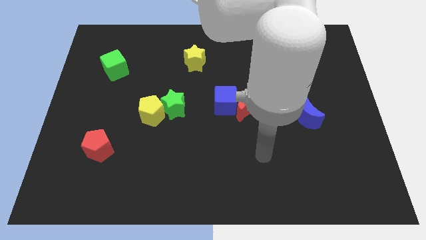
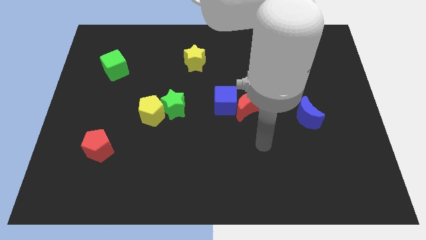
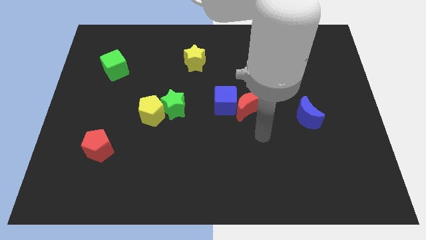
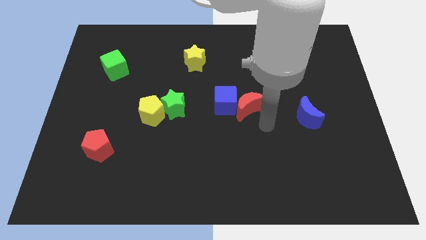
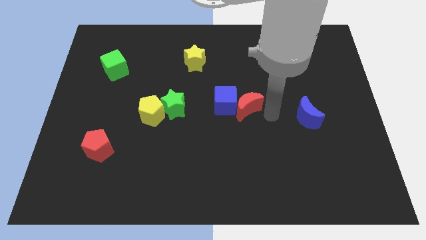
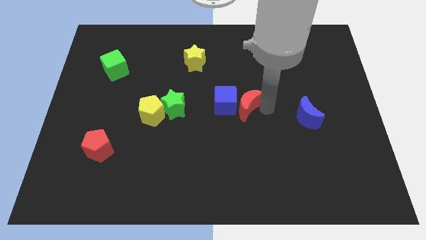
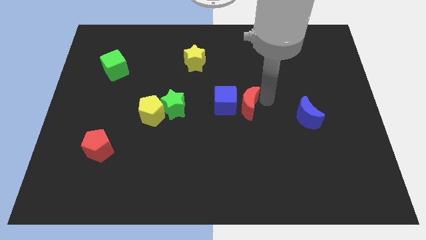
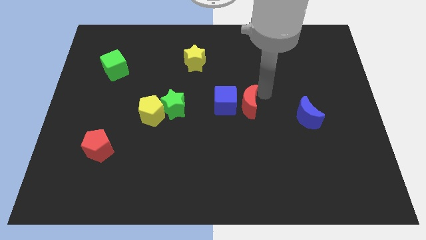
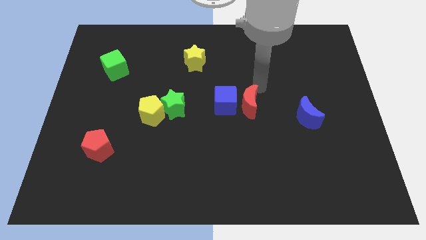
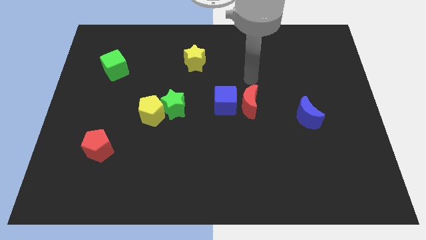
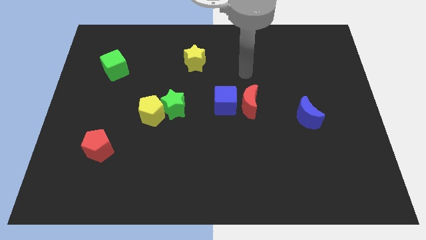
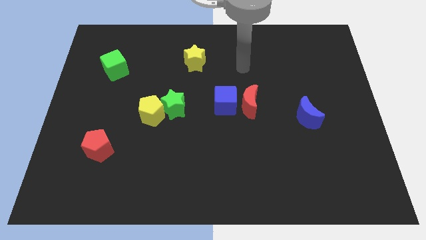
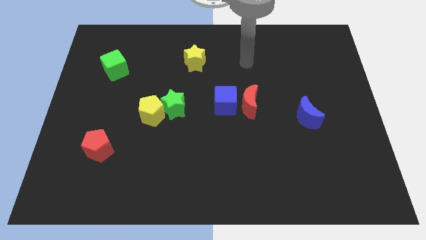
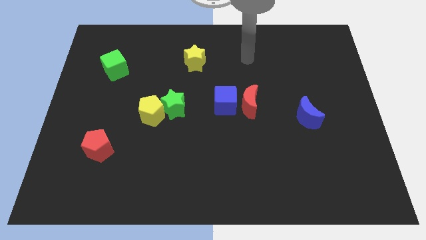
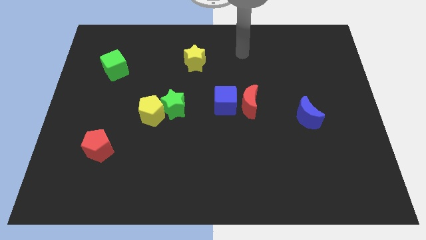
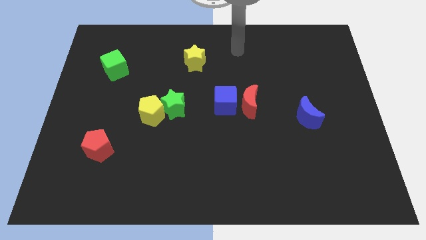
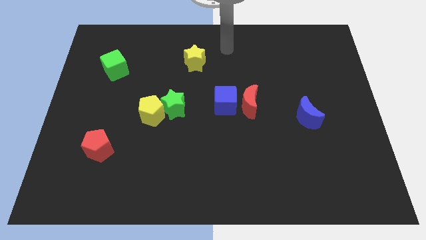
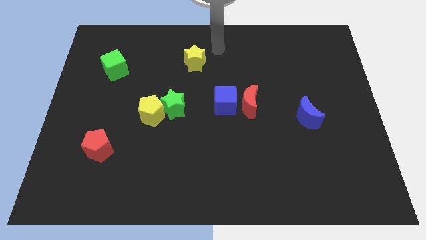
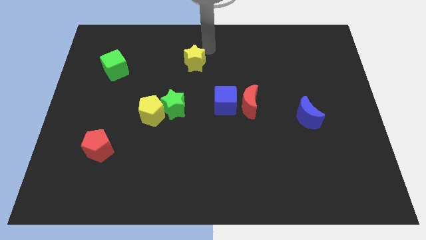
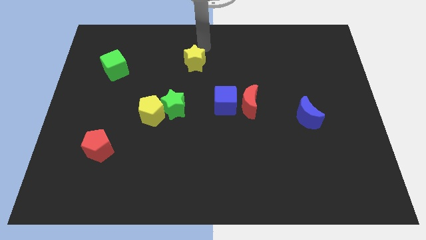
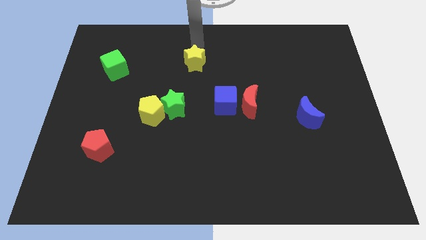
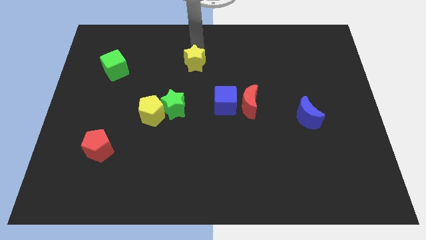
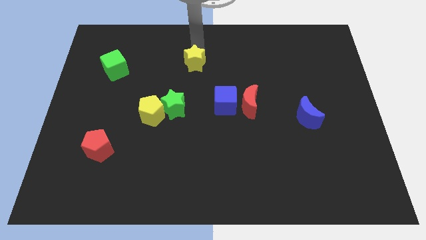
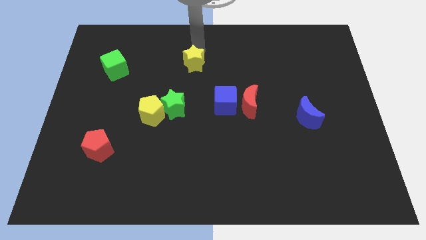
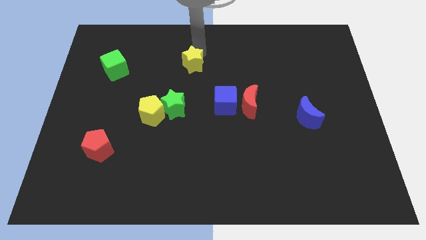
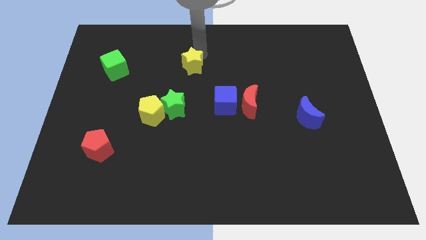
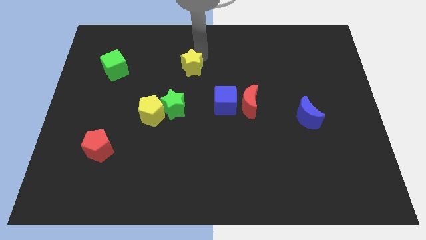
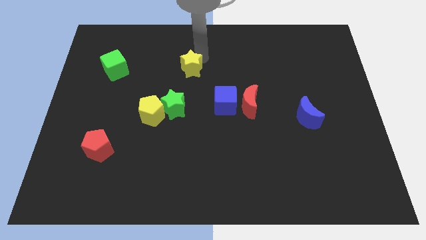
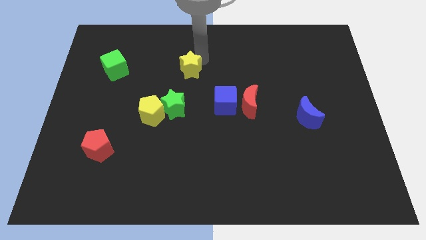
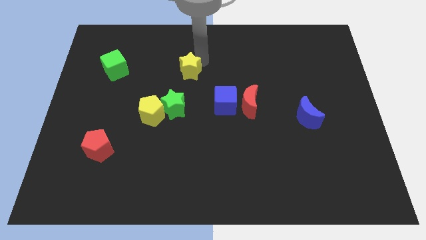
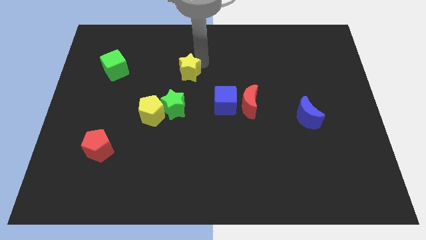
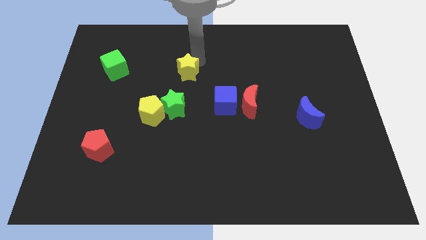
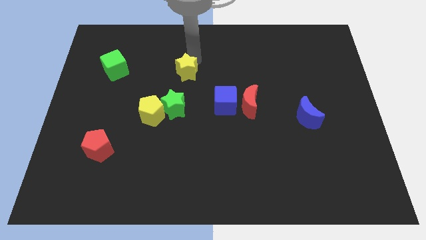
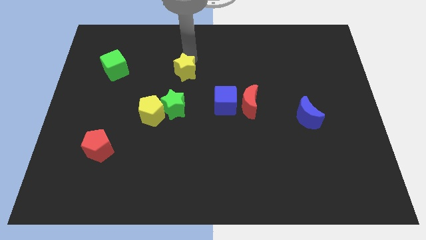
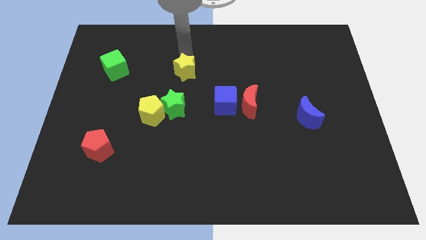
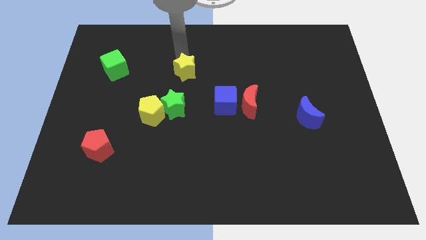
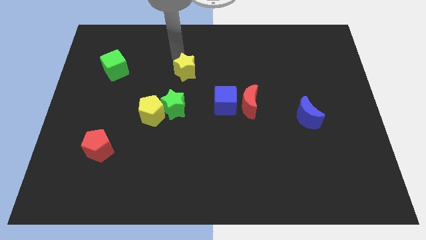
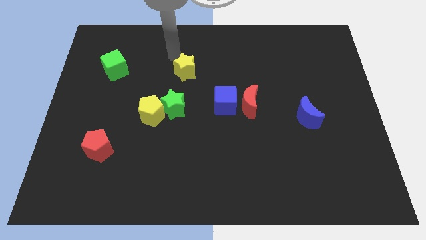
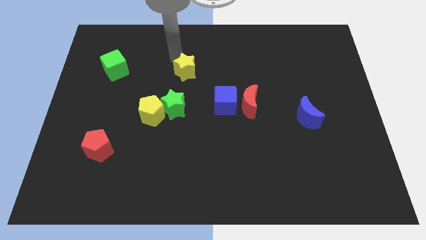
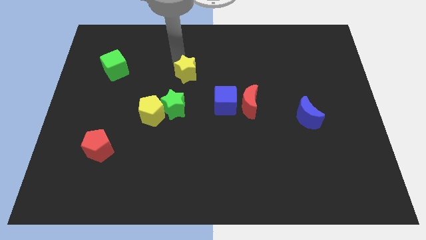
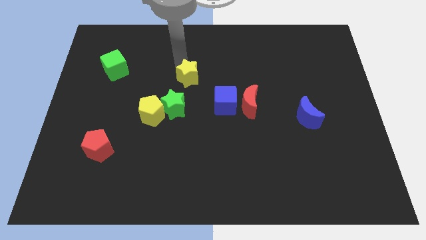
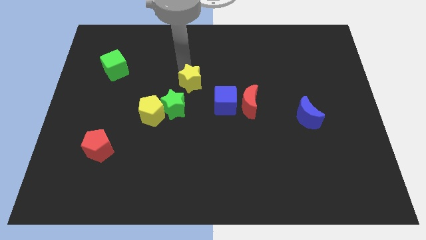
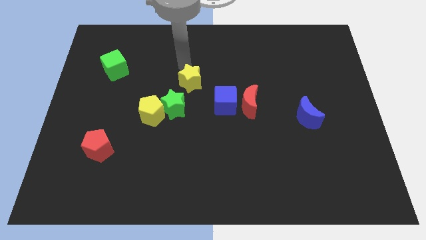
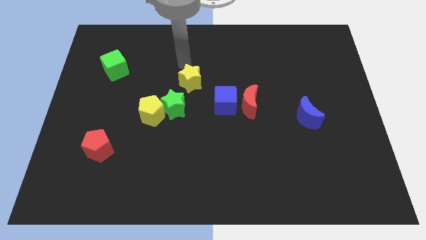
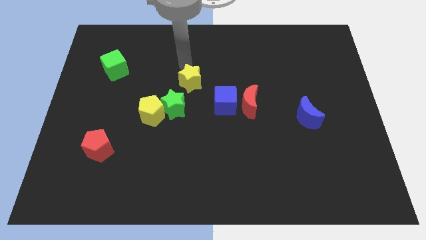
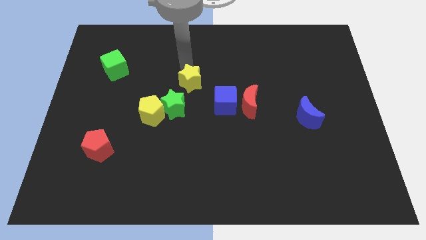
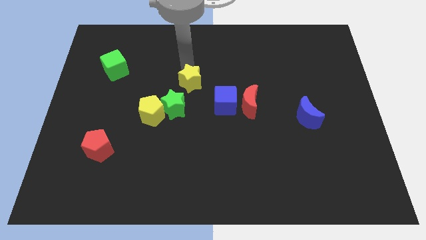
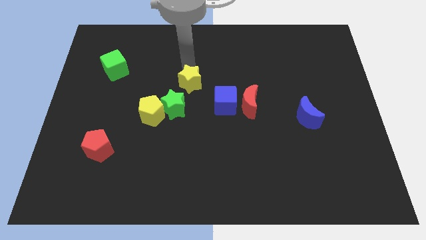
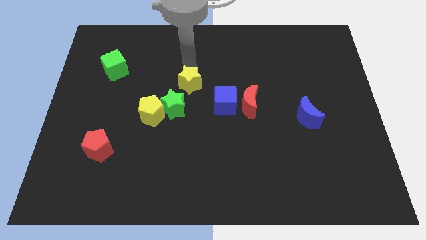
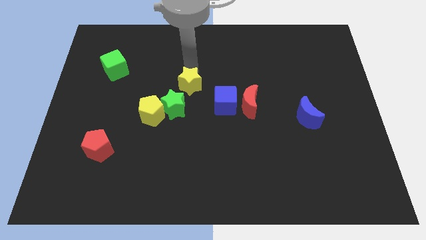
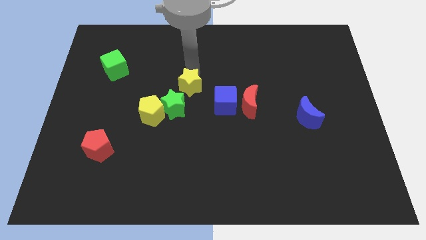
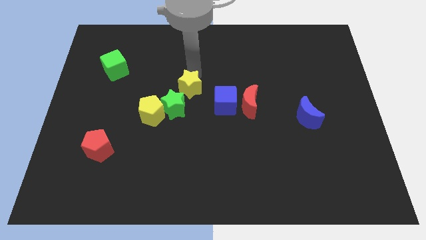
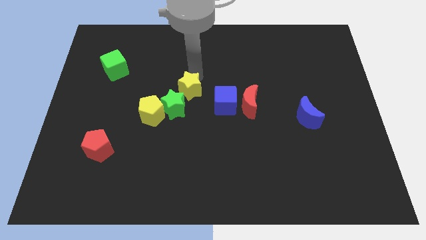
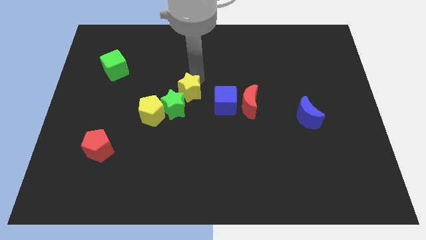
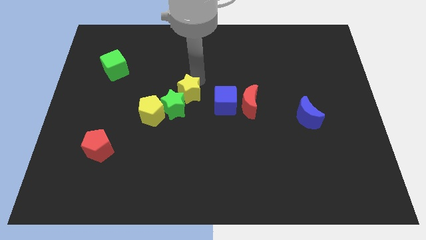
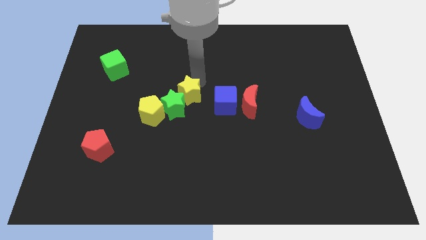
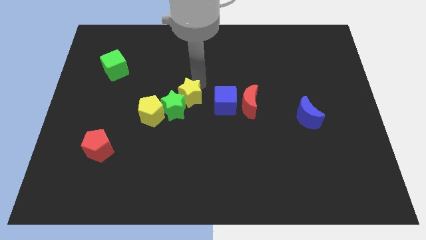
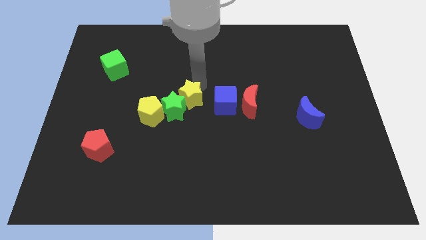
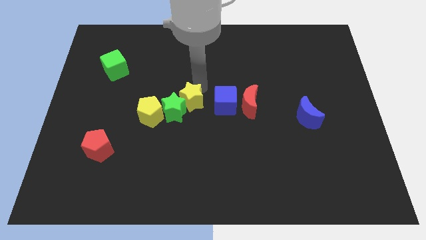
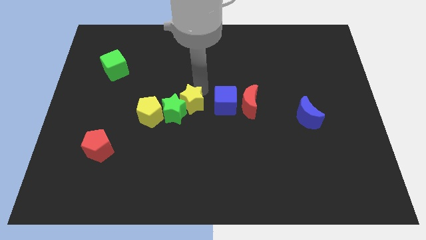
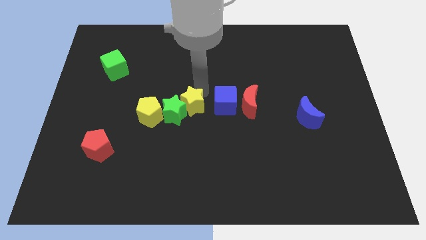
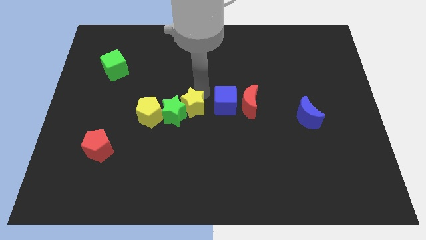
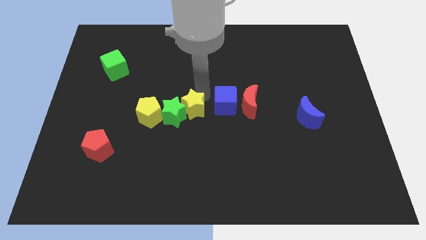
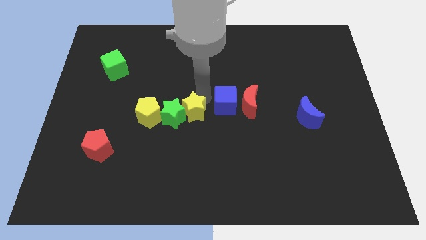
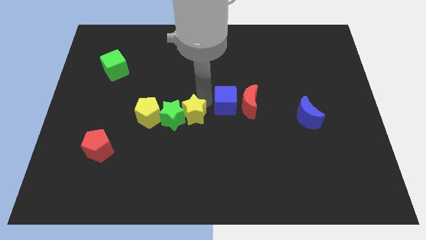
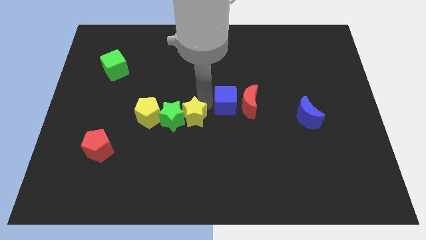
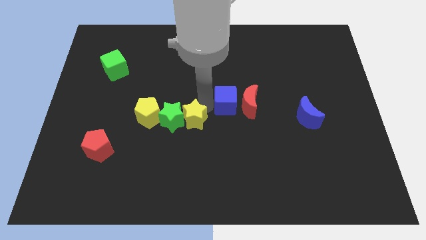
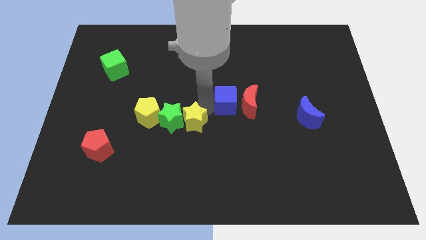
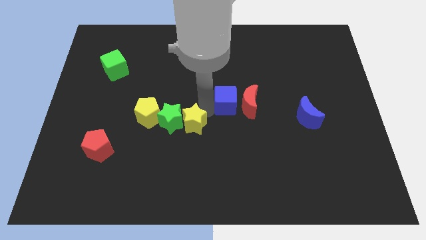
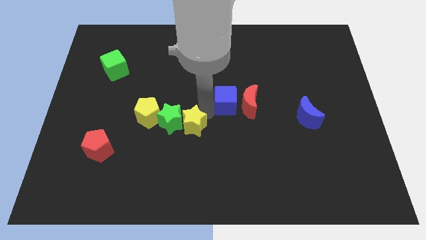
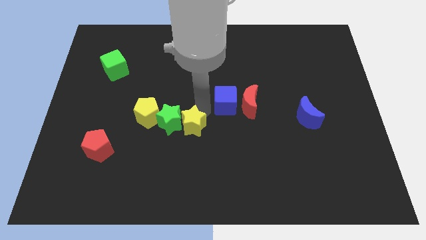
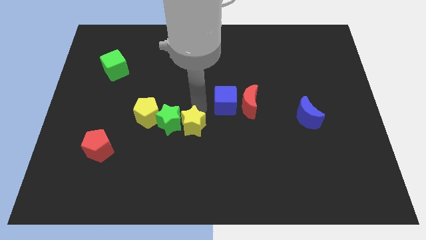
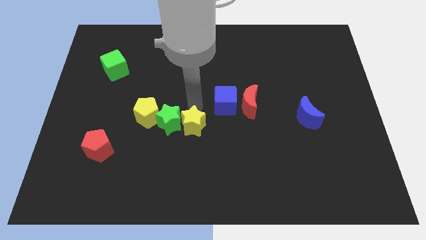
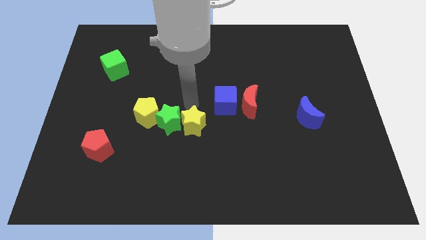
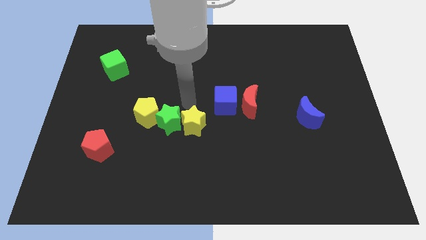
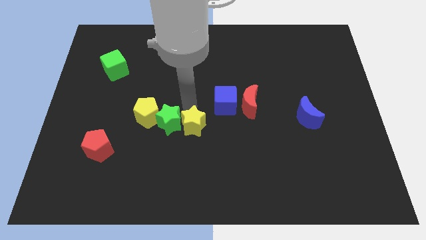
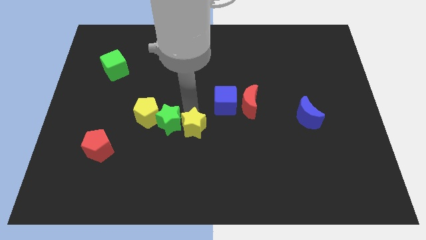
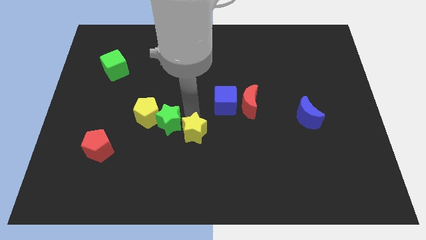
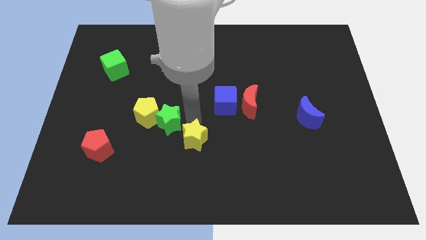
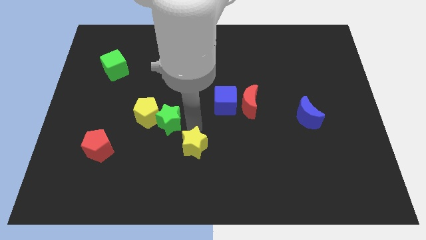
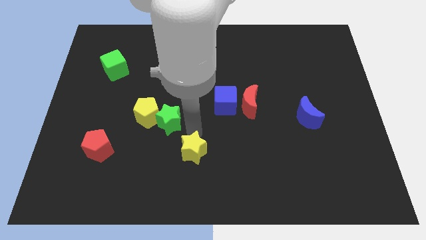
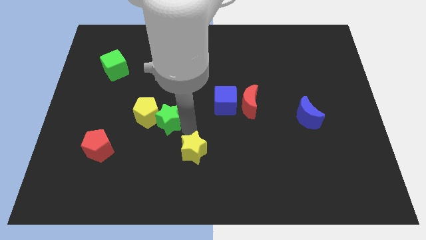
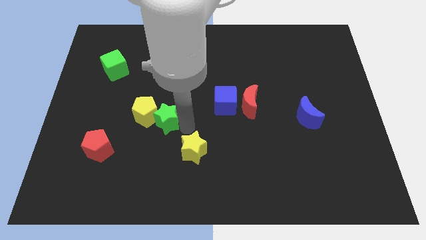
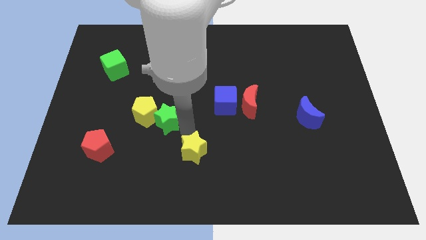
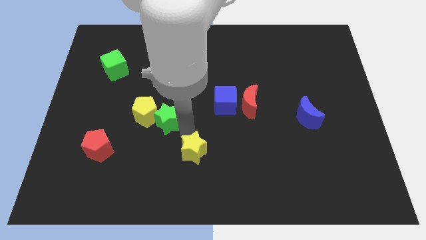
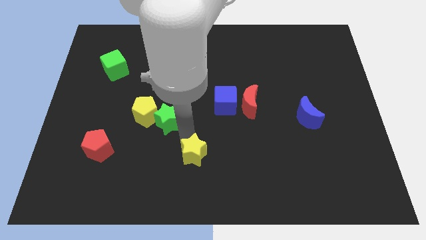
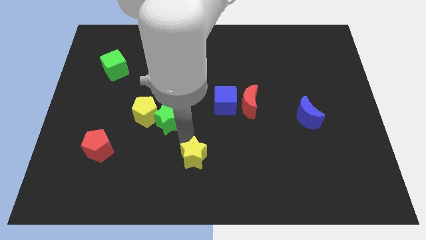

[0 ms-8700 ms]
push the yellow star to the bottom
